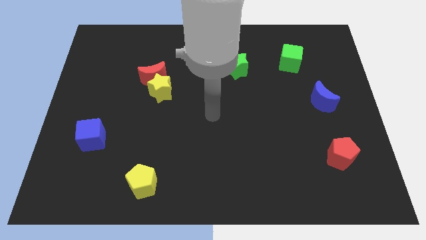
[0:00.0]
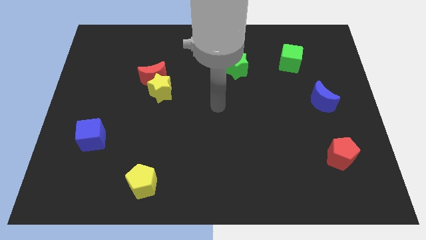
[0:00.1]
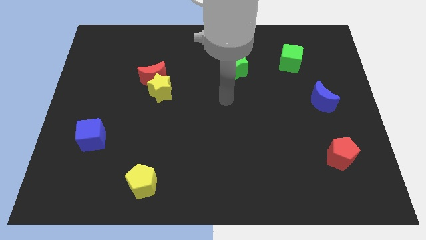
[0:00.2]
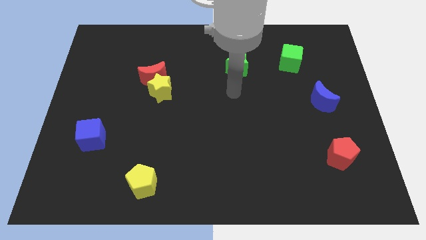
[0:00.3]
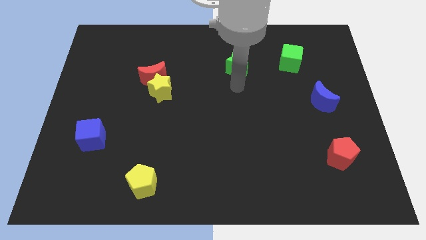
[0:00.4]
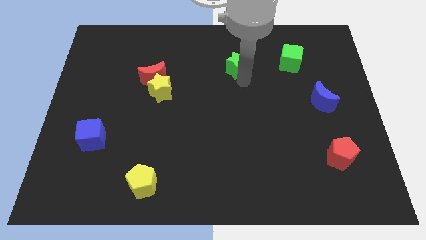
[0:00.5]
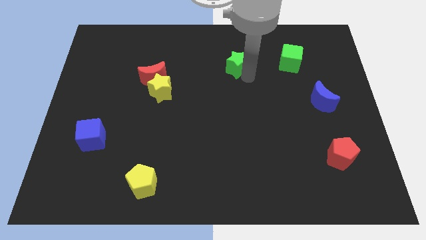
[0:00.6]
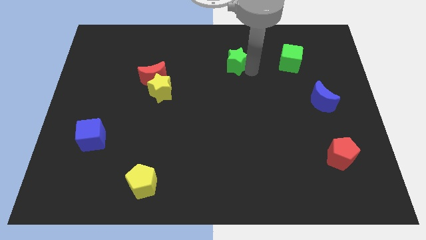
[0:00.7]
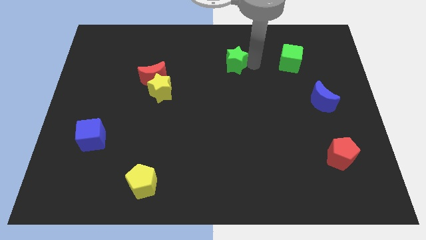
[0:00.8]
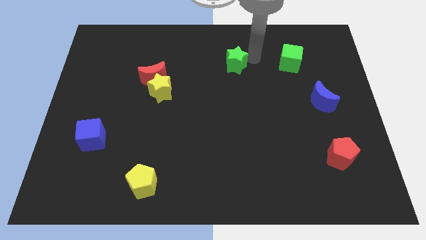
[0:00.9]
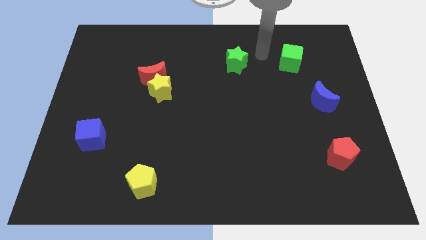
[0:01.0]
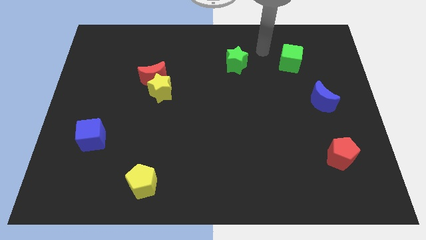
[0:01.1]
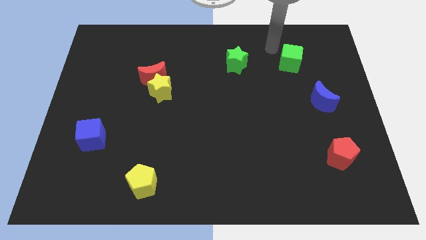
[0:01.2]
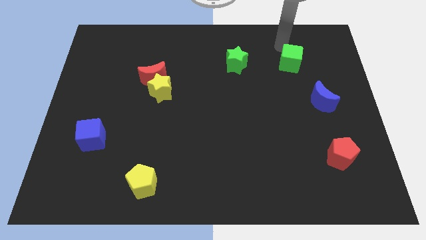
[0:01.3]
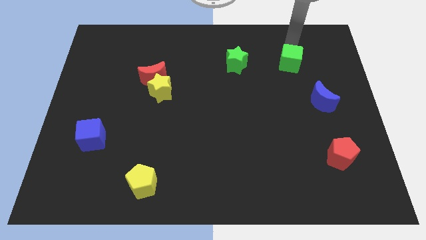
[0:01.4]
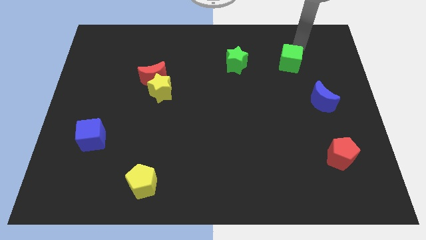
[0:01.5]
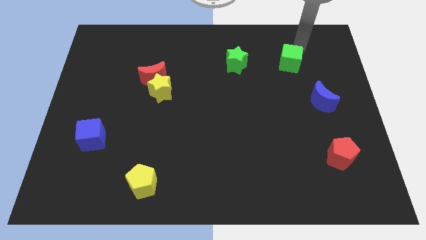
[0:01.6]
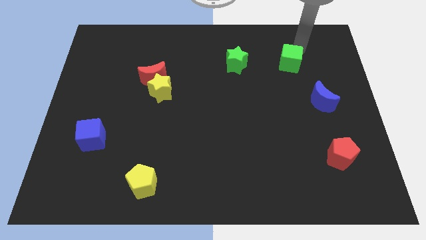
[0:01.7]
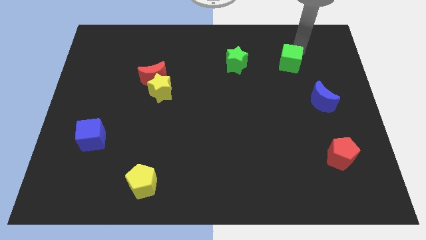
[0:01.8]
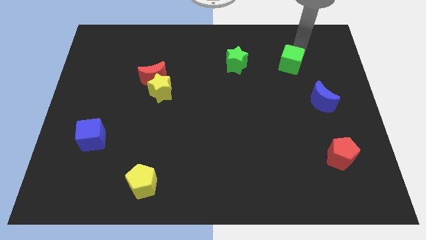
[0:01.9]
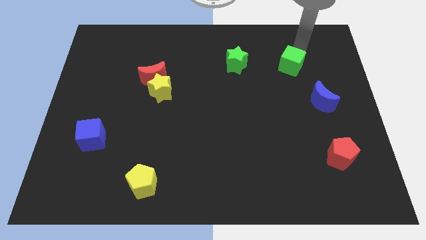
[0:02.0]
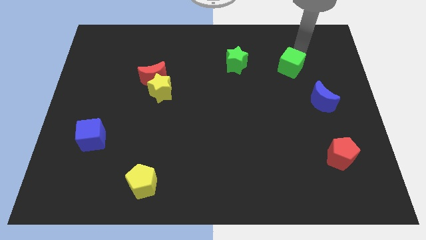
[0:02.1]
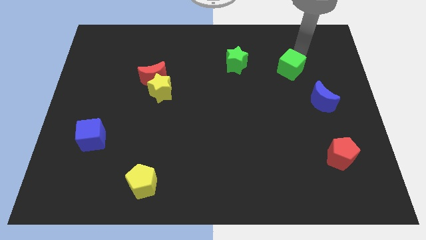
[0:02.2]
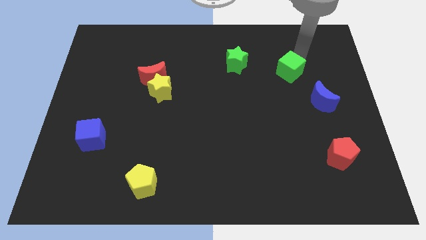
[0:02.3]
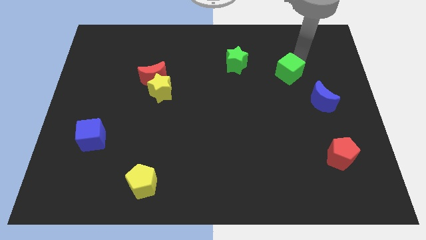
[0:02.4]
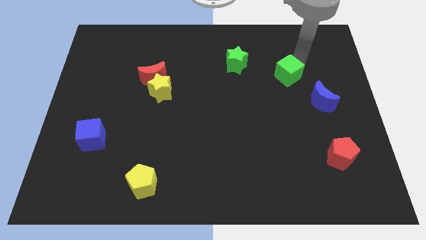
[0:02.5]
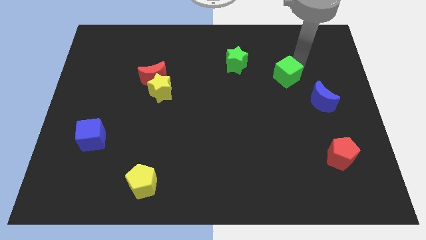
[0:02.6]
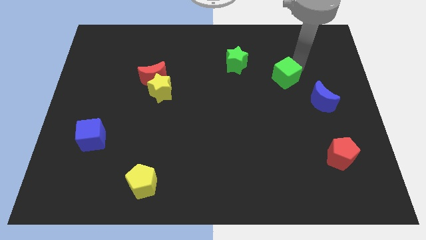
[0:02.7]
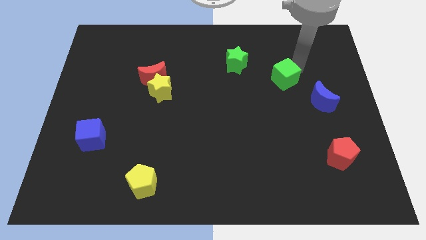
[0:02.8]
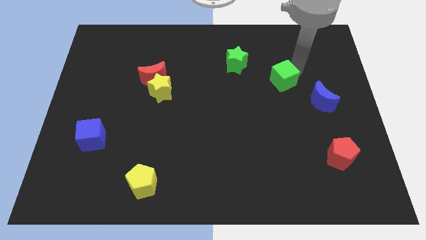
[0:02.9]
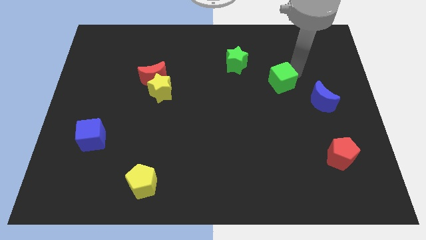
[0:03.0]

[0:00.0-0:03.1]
slightly push the green cube downwards and left

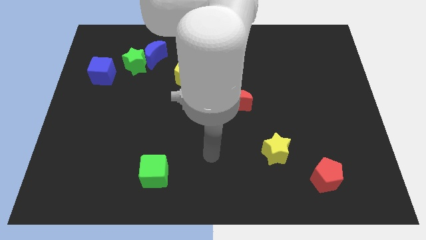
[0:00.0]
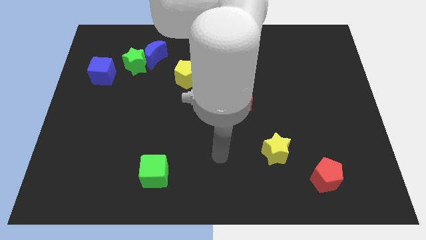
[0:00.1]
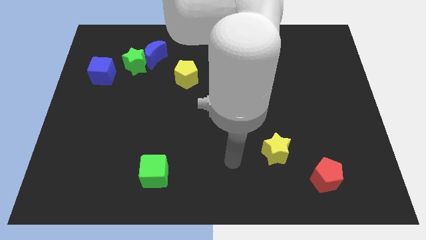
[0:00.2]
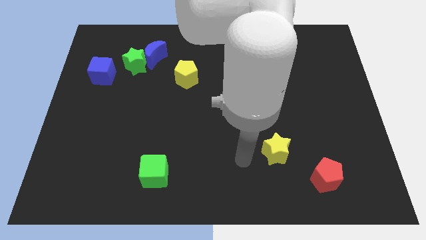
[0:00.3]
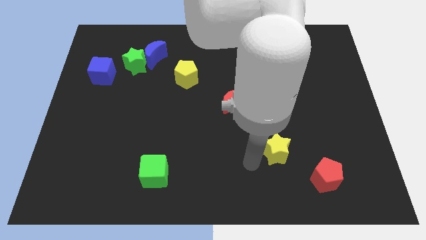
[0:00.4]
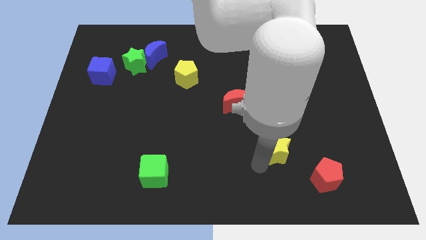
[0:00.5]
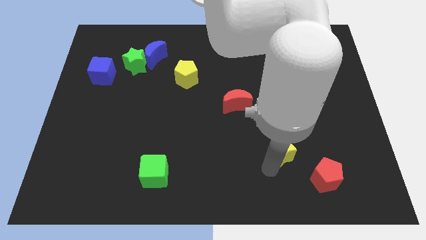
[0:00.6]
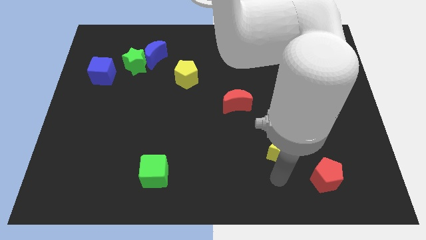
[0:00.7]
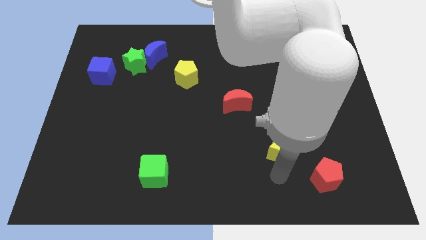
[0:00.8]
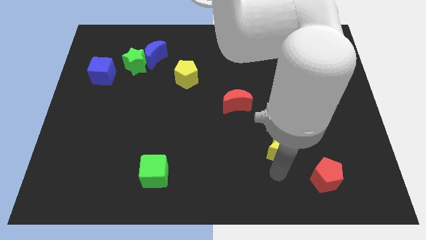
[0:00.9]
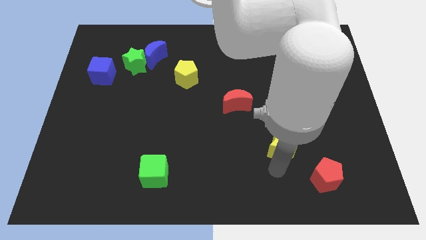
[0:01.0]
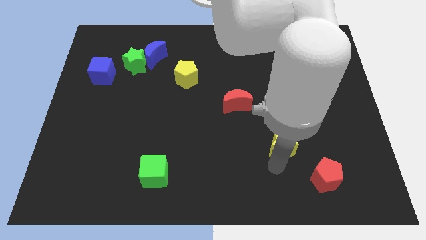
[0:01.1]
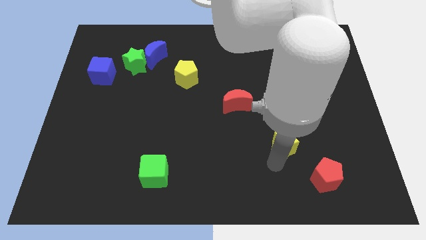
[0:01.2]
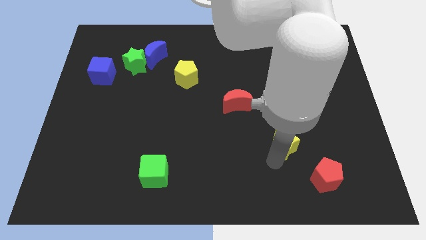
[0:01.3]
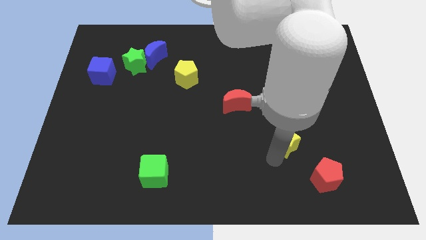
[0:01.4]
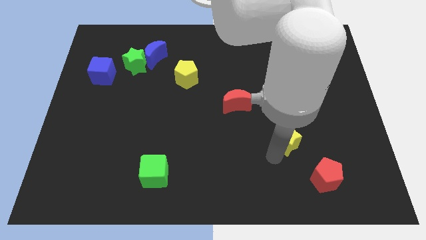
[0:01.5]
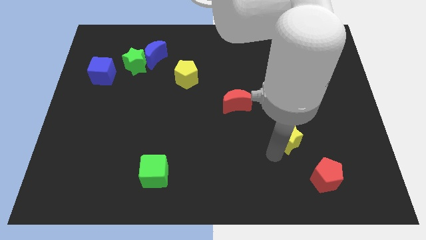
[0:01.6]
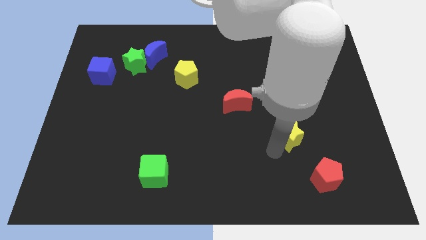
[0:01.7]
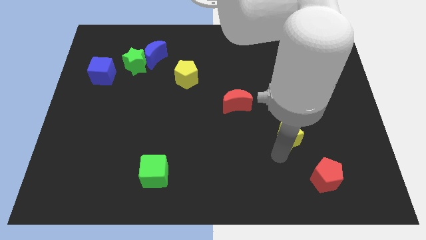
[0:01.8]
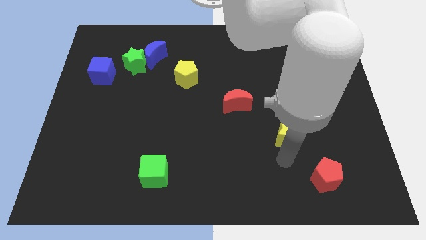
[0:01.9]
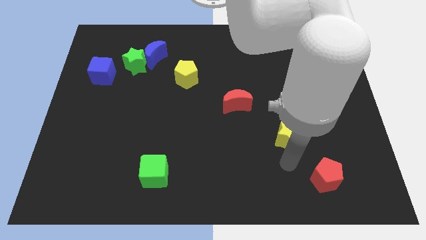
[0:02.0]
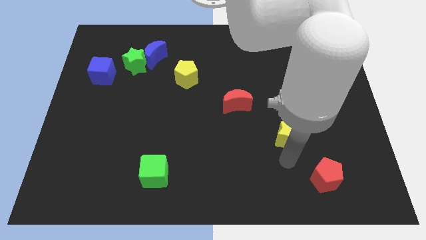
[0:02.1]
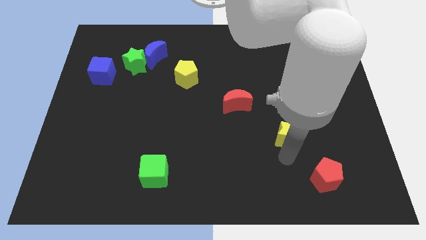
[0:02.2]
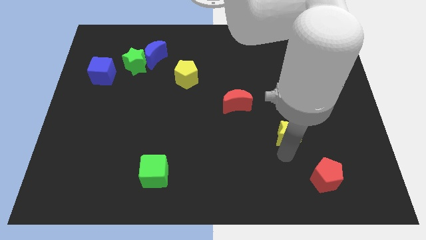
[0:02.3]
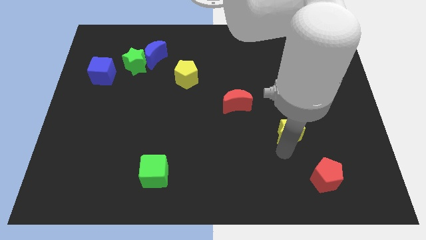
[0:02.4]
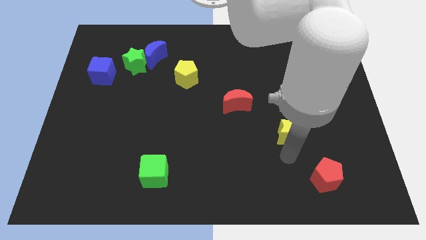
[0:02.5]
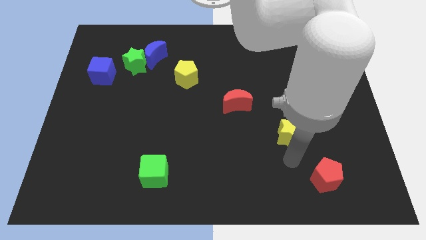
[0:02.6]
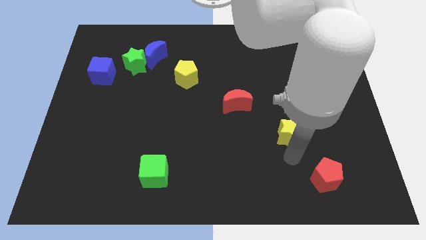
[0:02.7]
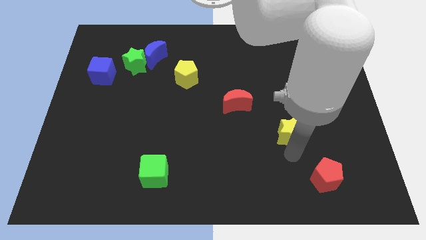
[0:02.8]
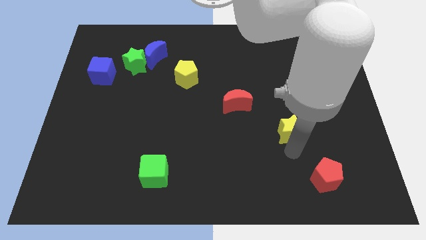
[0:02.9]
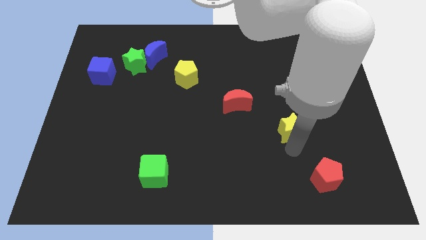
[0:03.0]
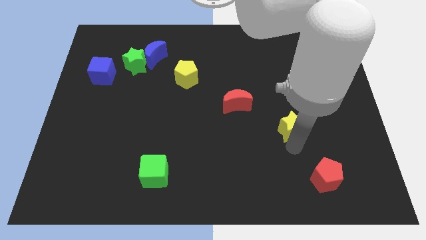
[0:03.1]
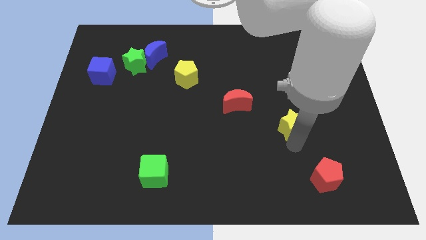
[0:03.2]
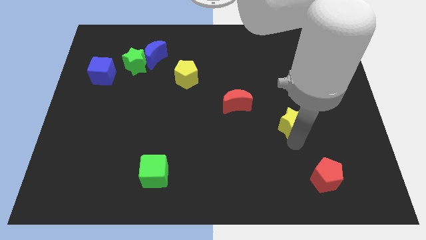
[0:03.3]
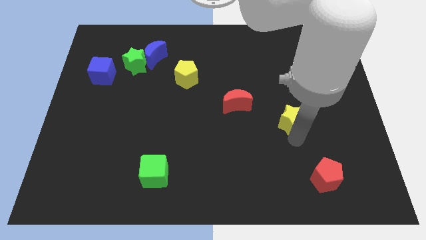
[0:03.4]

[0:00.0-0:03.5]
move the yellow star up somewhat

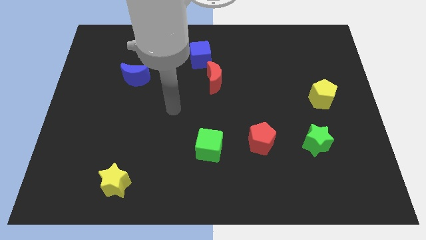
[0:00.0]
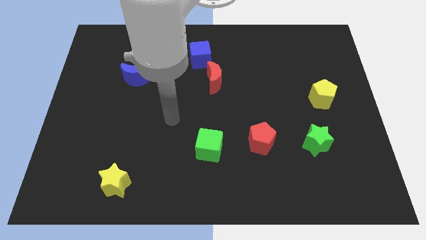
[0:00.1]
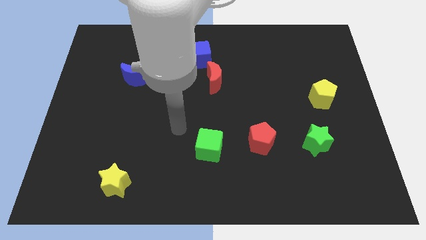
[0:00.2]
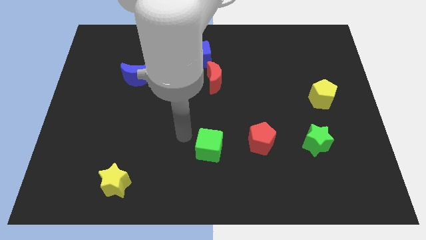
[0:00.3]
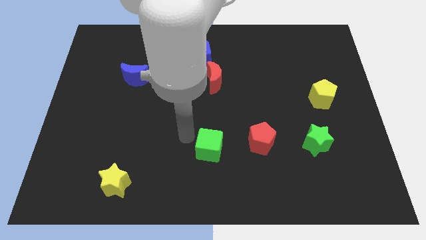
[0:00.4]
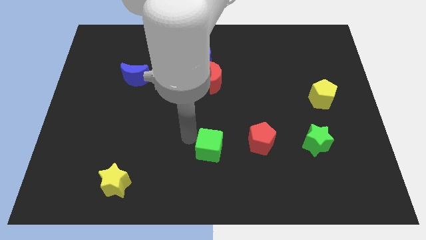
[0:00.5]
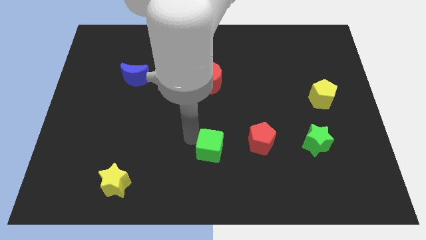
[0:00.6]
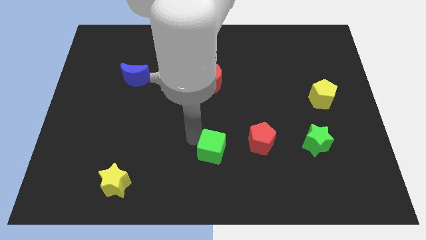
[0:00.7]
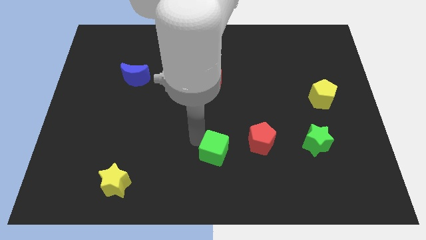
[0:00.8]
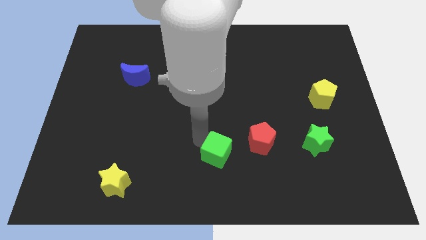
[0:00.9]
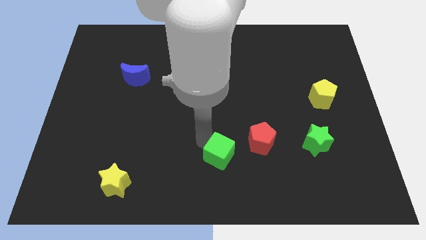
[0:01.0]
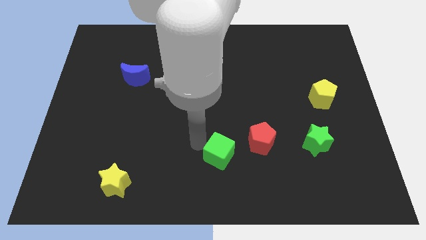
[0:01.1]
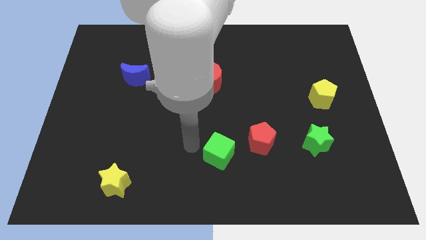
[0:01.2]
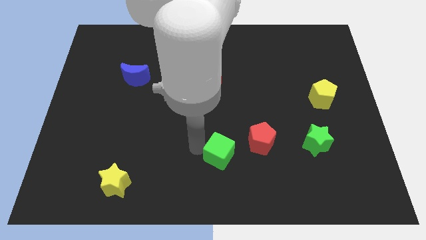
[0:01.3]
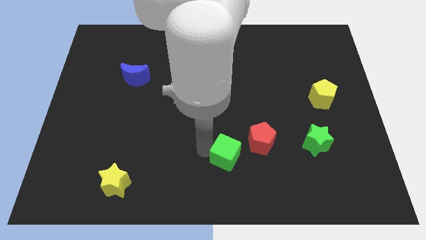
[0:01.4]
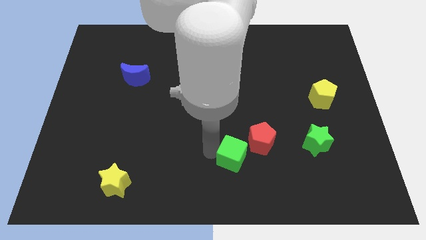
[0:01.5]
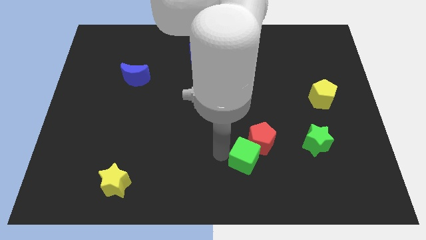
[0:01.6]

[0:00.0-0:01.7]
slide the green cube a bit right
